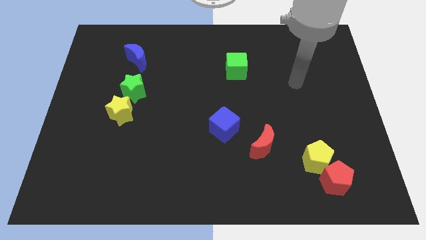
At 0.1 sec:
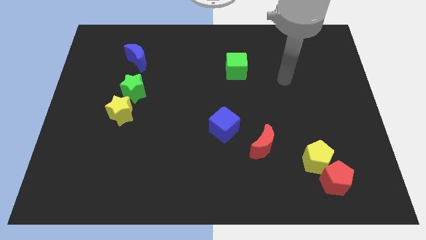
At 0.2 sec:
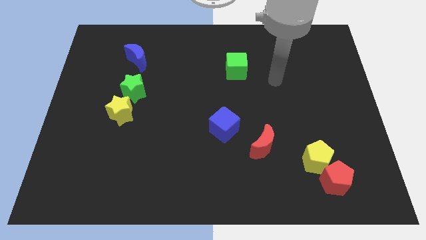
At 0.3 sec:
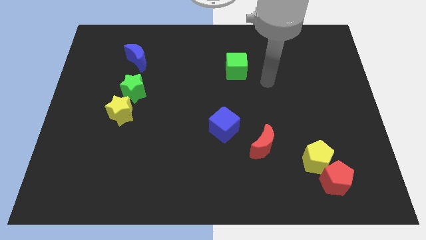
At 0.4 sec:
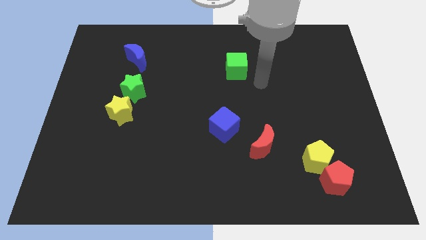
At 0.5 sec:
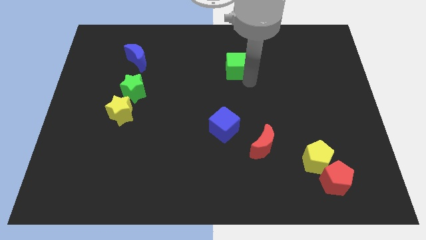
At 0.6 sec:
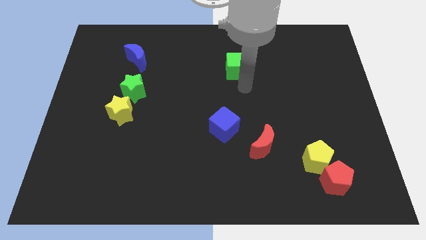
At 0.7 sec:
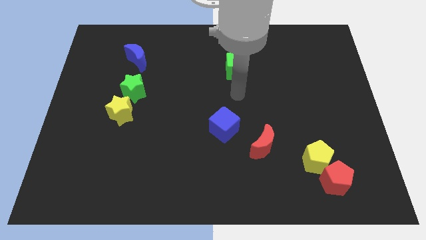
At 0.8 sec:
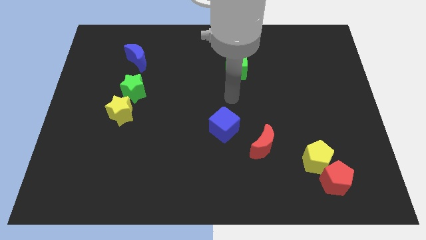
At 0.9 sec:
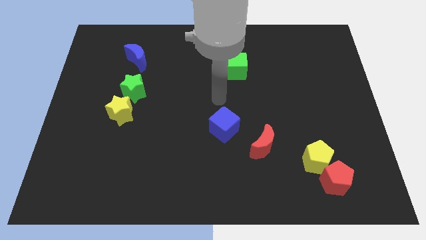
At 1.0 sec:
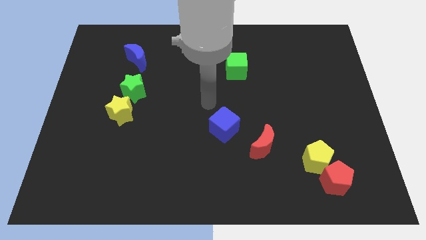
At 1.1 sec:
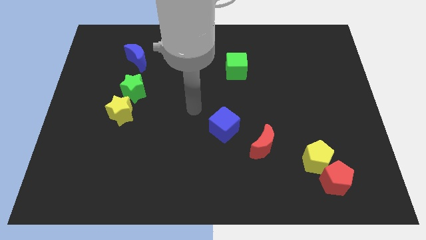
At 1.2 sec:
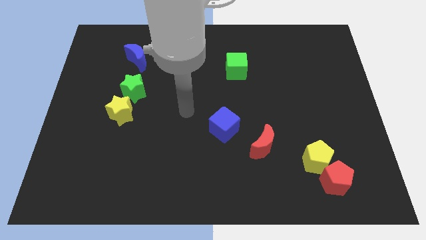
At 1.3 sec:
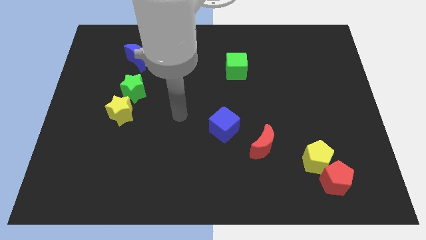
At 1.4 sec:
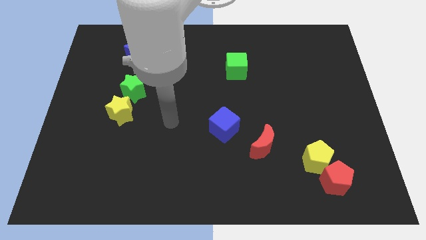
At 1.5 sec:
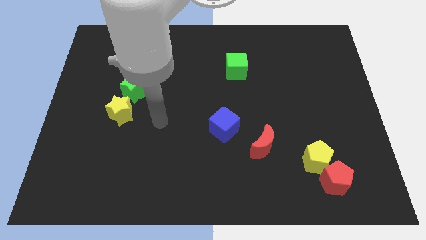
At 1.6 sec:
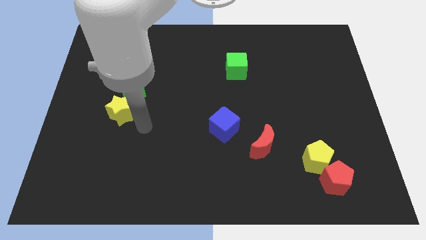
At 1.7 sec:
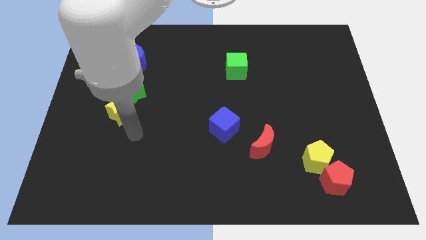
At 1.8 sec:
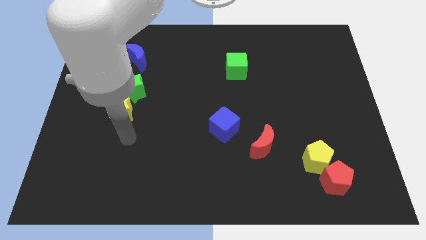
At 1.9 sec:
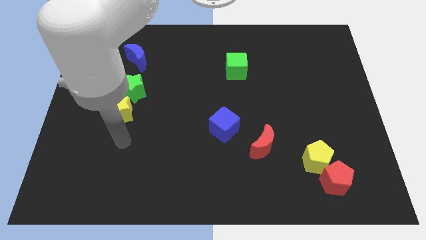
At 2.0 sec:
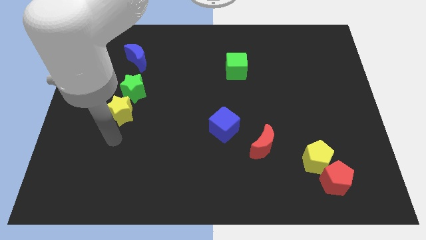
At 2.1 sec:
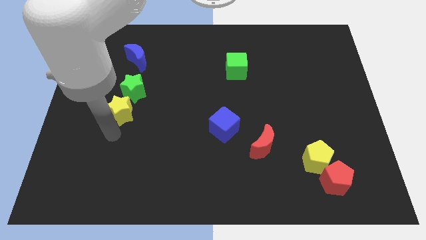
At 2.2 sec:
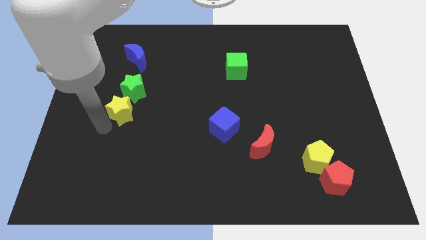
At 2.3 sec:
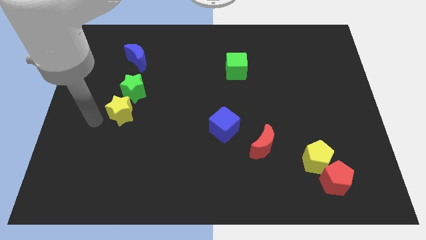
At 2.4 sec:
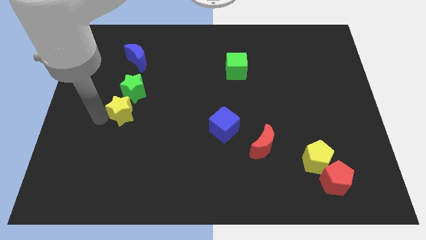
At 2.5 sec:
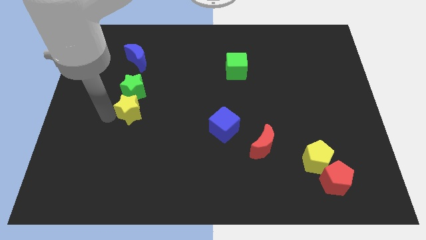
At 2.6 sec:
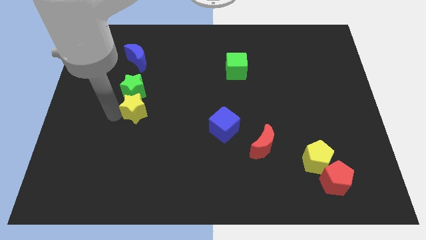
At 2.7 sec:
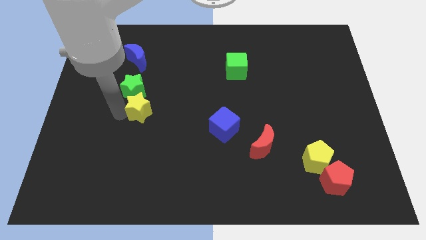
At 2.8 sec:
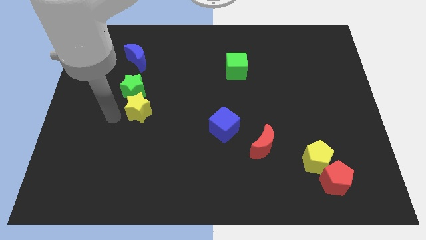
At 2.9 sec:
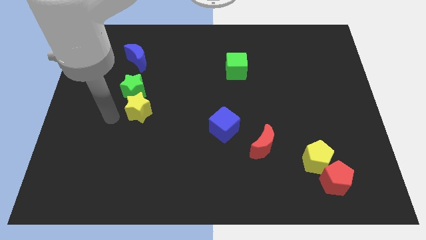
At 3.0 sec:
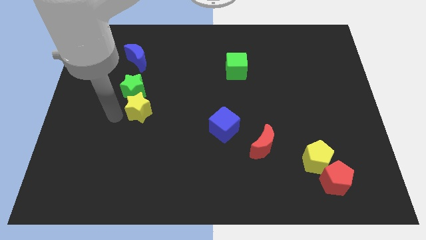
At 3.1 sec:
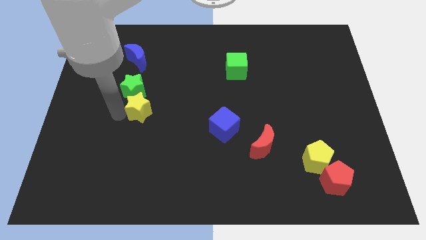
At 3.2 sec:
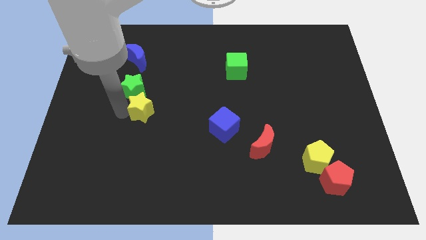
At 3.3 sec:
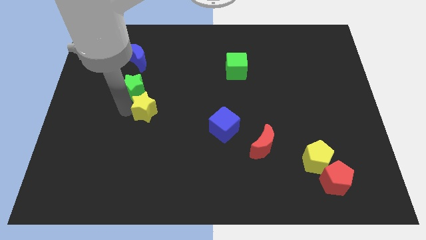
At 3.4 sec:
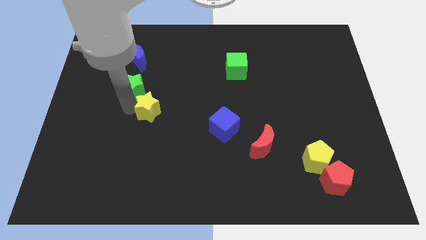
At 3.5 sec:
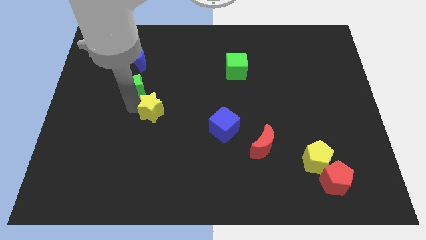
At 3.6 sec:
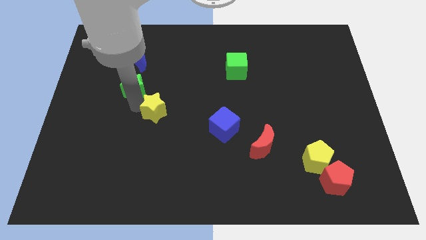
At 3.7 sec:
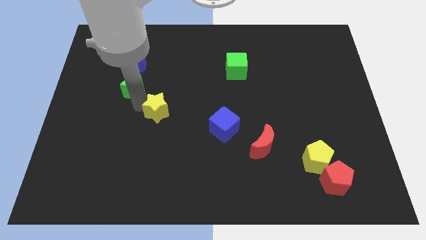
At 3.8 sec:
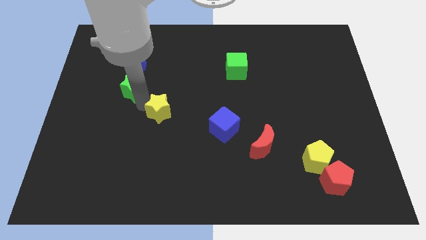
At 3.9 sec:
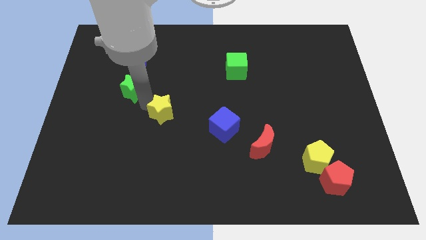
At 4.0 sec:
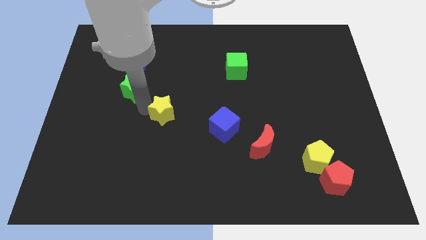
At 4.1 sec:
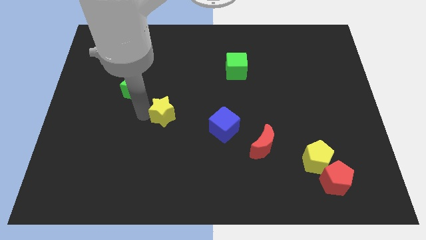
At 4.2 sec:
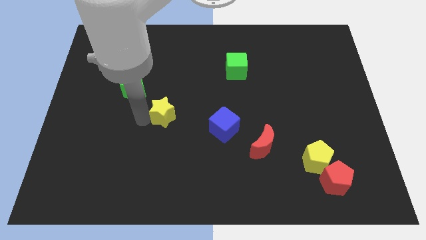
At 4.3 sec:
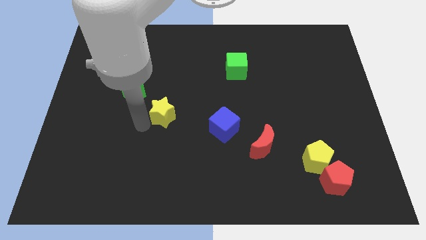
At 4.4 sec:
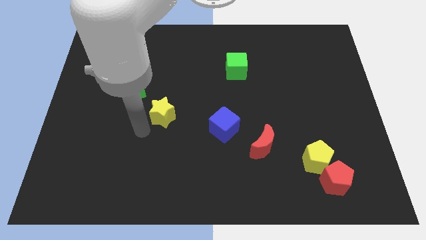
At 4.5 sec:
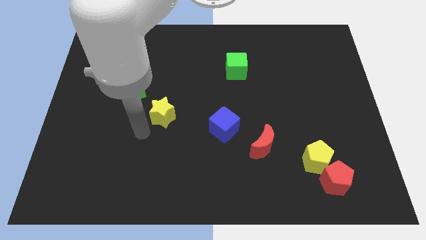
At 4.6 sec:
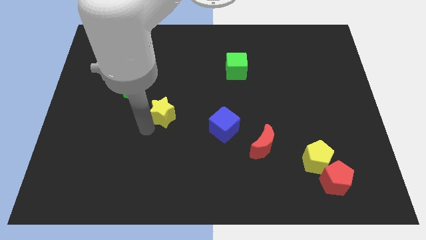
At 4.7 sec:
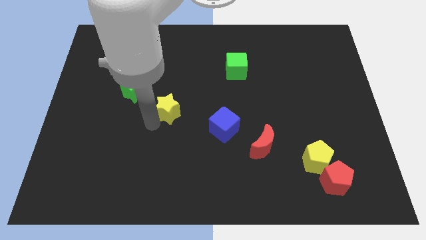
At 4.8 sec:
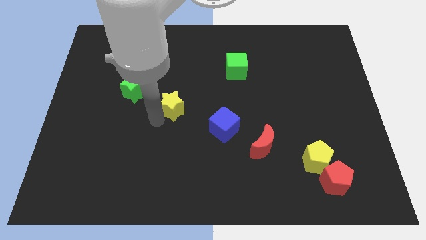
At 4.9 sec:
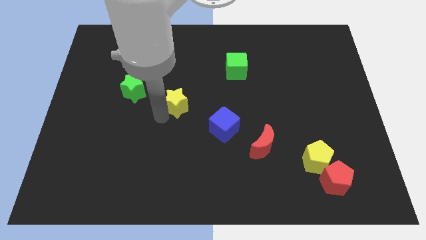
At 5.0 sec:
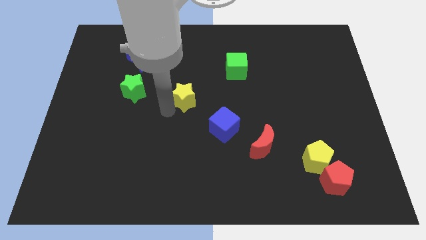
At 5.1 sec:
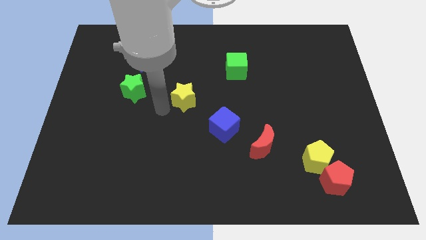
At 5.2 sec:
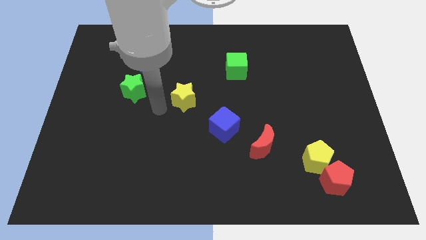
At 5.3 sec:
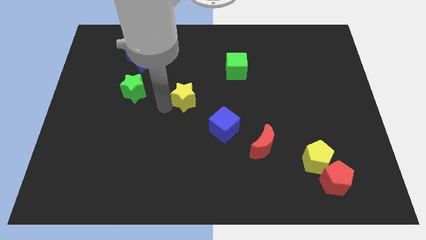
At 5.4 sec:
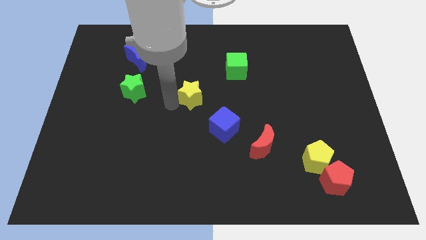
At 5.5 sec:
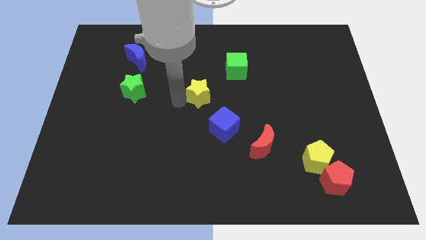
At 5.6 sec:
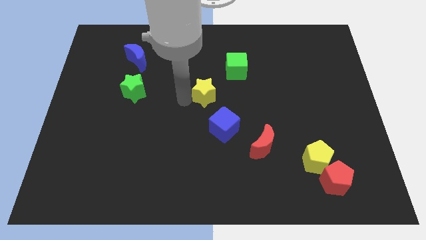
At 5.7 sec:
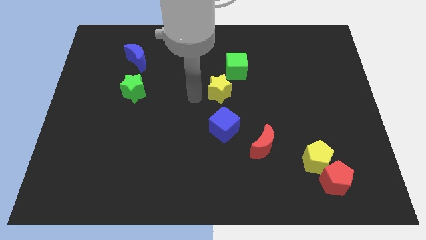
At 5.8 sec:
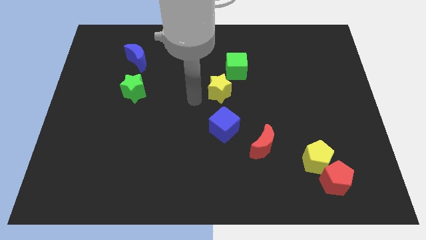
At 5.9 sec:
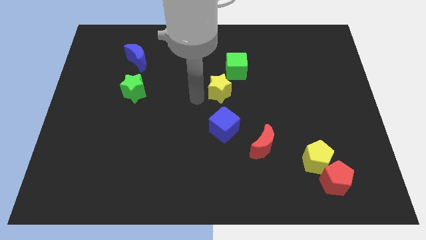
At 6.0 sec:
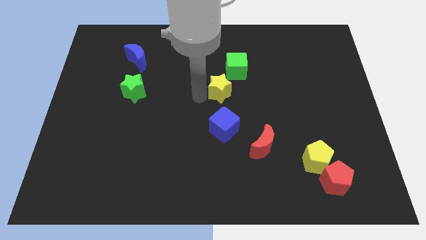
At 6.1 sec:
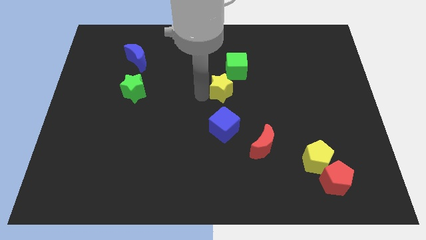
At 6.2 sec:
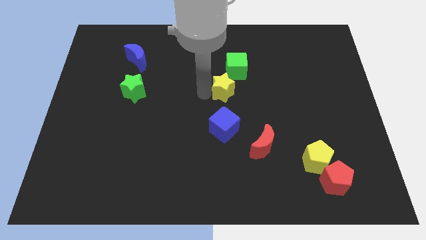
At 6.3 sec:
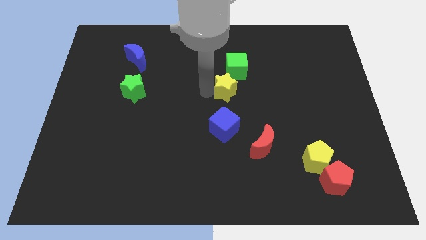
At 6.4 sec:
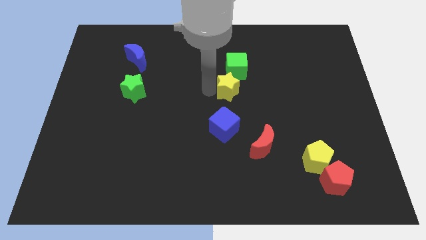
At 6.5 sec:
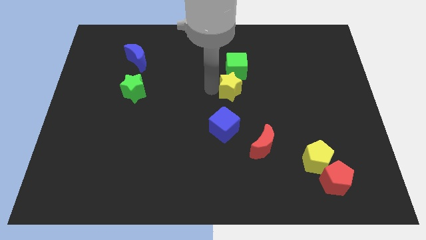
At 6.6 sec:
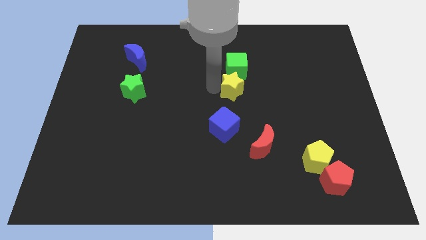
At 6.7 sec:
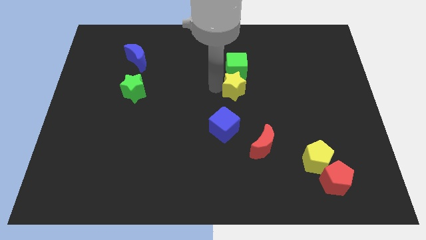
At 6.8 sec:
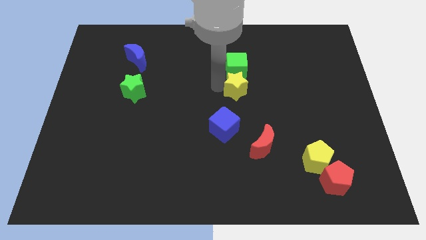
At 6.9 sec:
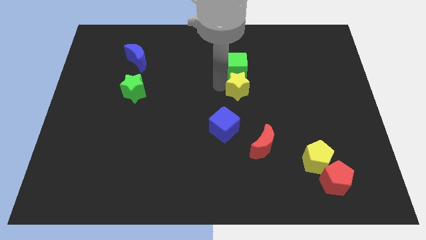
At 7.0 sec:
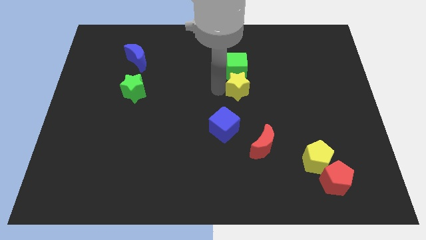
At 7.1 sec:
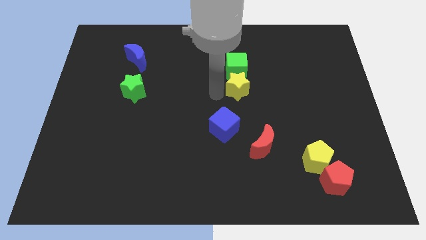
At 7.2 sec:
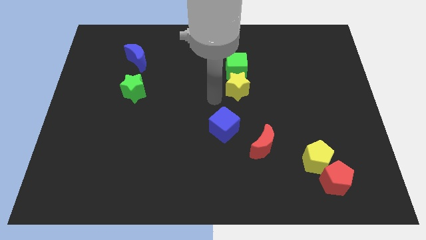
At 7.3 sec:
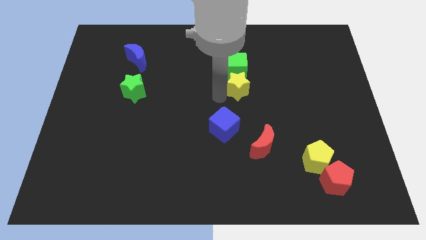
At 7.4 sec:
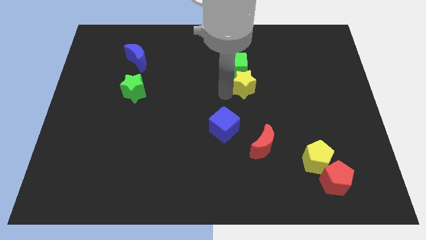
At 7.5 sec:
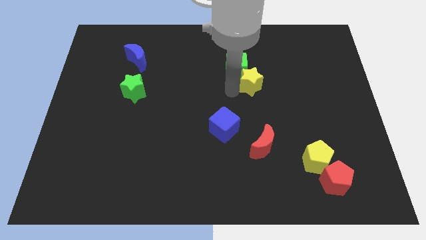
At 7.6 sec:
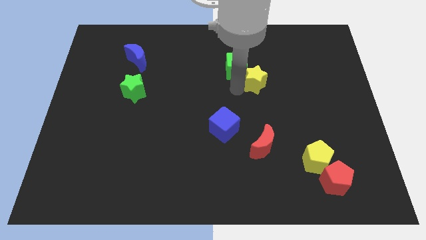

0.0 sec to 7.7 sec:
push the yellow star right of the green cube
